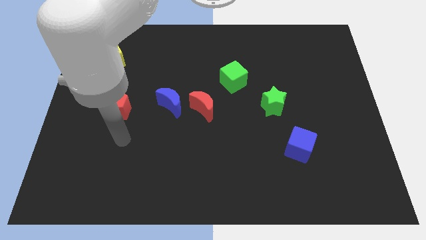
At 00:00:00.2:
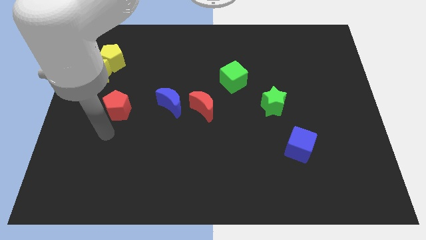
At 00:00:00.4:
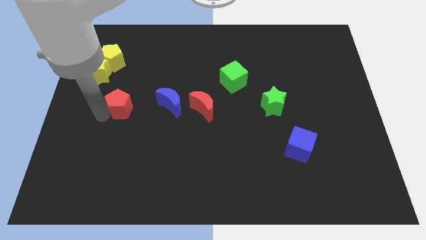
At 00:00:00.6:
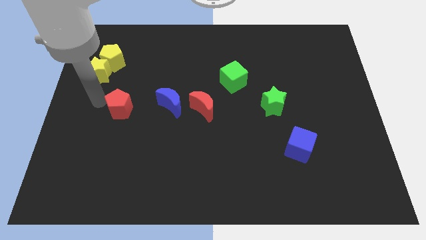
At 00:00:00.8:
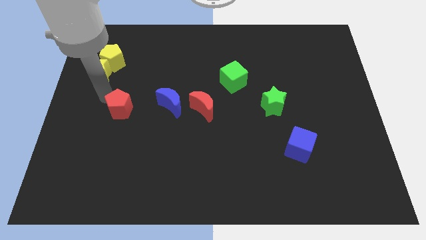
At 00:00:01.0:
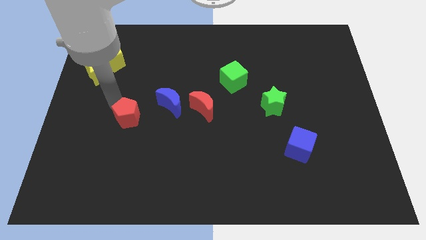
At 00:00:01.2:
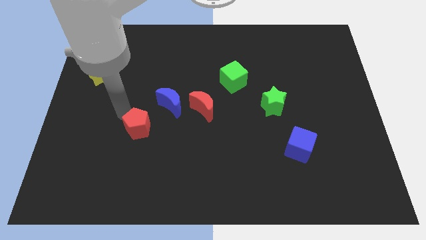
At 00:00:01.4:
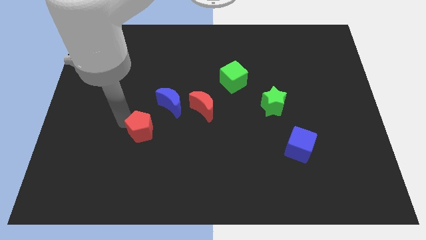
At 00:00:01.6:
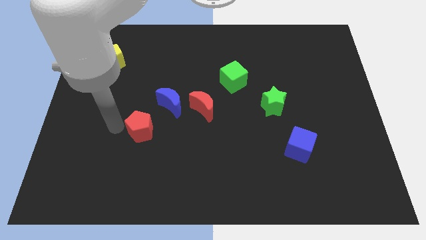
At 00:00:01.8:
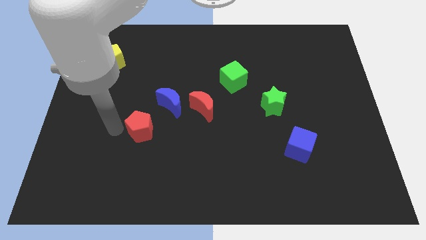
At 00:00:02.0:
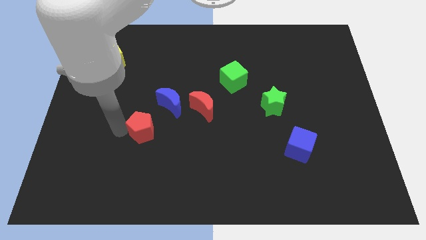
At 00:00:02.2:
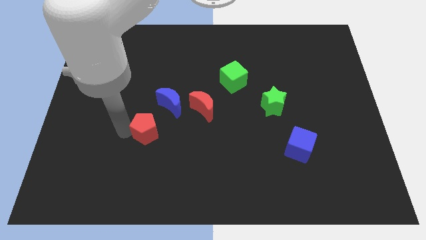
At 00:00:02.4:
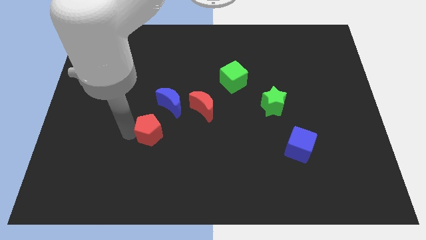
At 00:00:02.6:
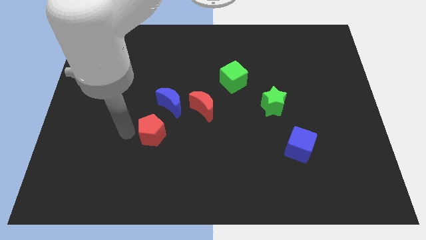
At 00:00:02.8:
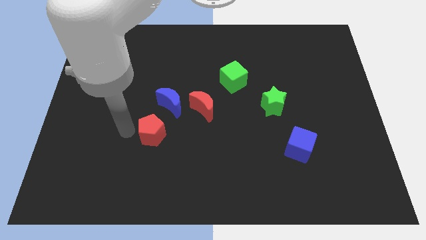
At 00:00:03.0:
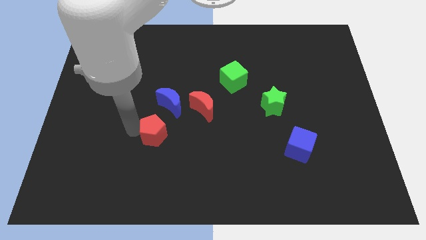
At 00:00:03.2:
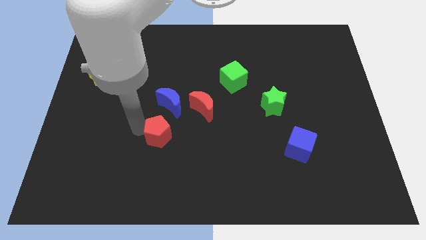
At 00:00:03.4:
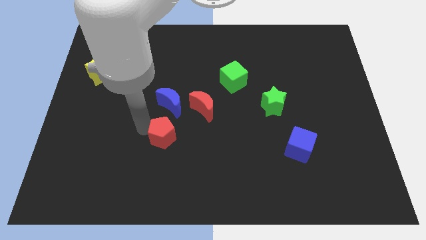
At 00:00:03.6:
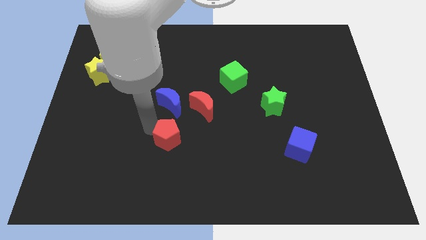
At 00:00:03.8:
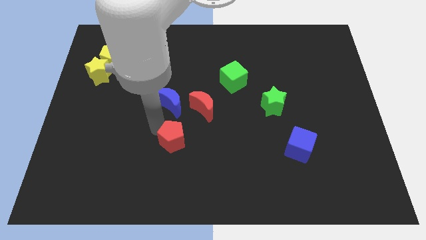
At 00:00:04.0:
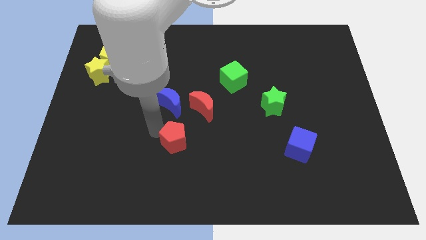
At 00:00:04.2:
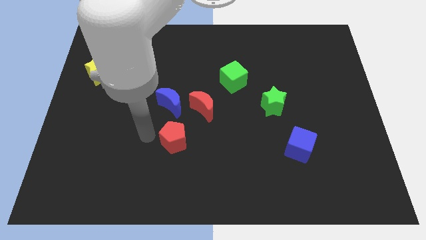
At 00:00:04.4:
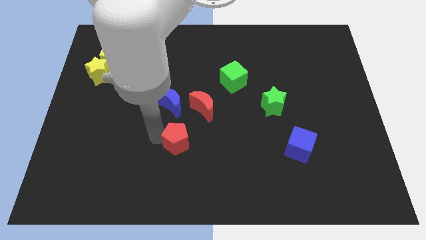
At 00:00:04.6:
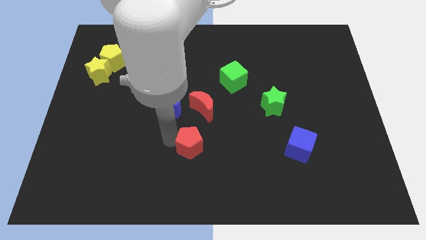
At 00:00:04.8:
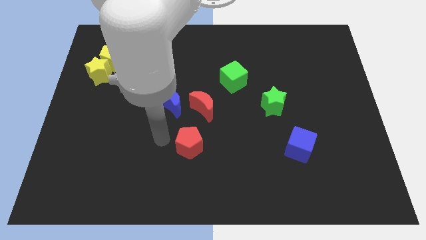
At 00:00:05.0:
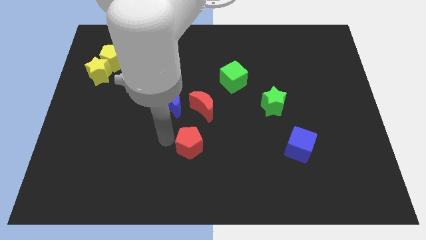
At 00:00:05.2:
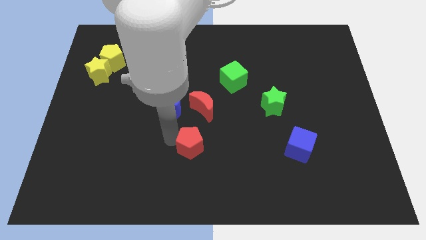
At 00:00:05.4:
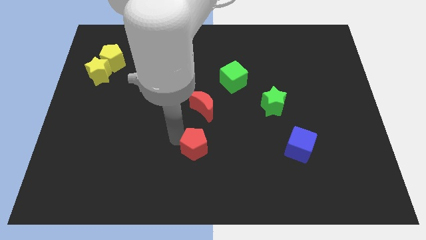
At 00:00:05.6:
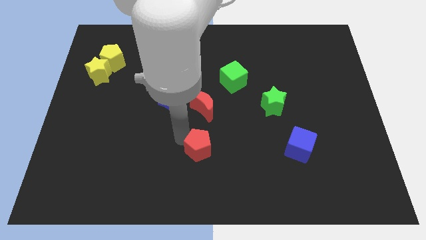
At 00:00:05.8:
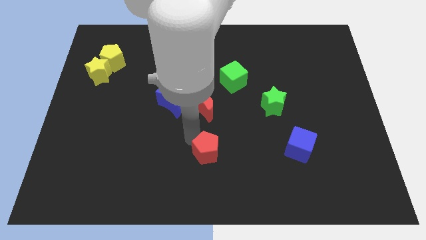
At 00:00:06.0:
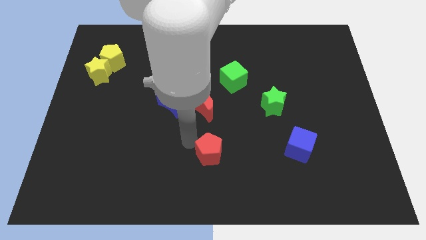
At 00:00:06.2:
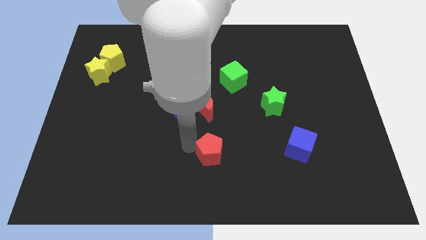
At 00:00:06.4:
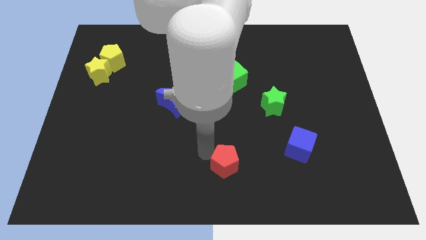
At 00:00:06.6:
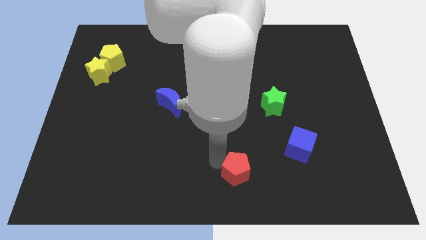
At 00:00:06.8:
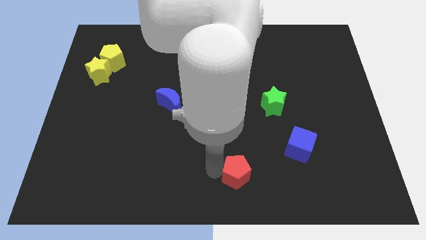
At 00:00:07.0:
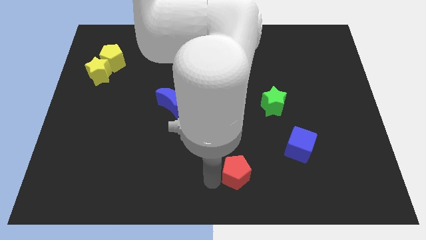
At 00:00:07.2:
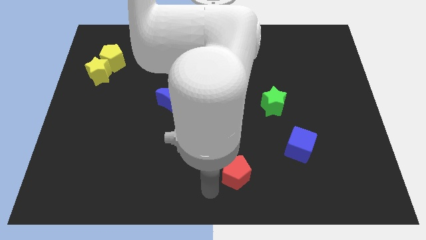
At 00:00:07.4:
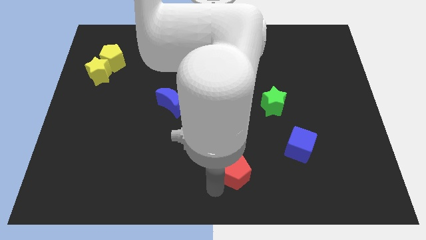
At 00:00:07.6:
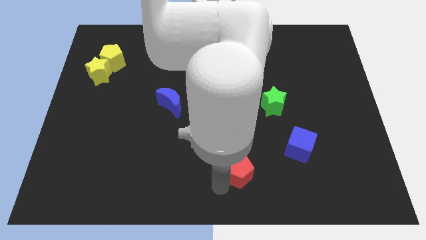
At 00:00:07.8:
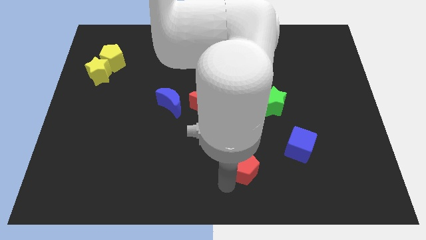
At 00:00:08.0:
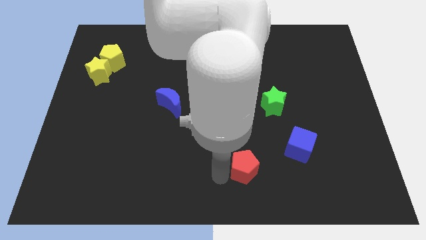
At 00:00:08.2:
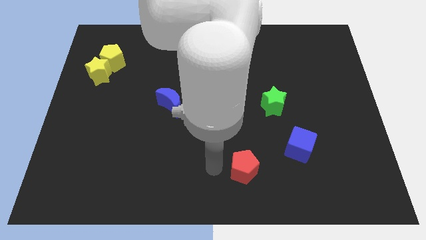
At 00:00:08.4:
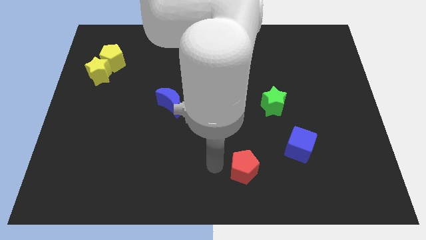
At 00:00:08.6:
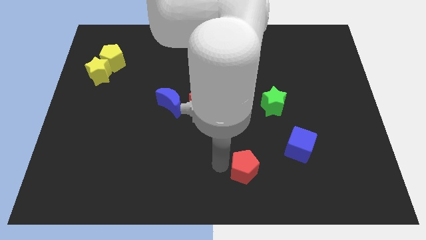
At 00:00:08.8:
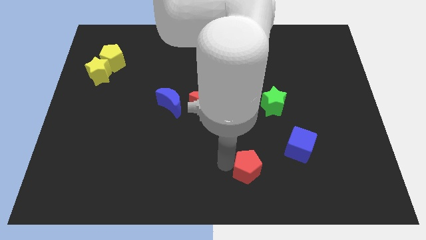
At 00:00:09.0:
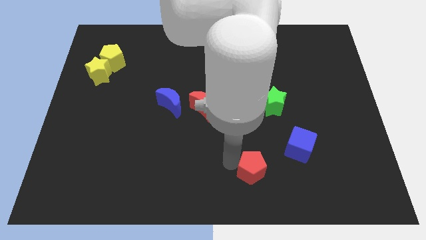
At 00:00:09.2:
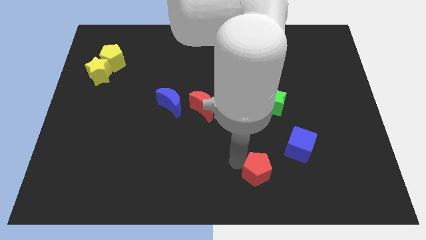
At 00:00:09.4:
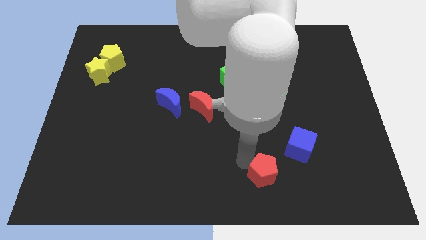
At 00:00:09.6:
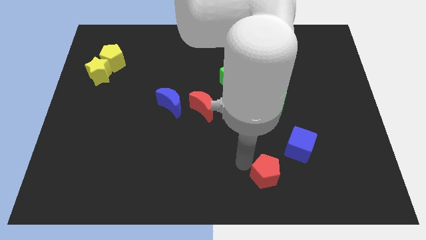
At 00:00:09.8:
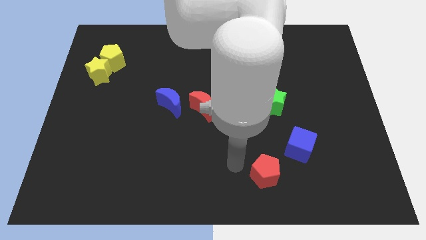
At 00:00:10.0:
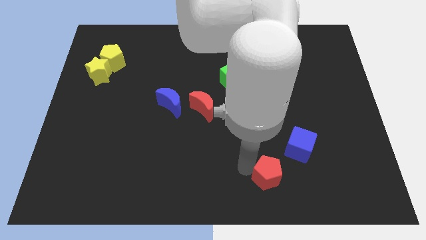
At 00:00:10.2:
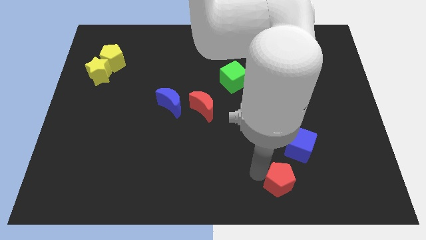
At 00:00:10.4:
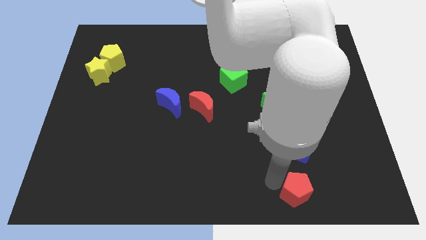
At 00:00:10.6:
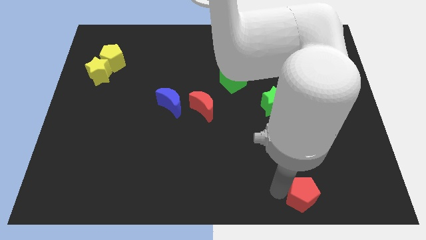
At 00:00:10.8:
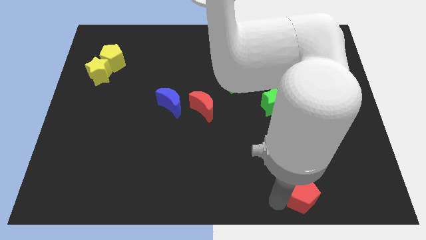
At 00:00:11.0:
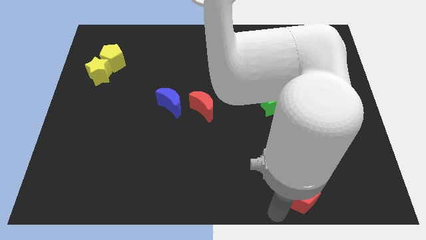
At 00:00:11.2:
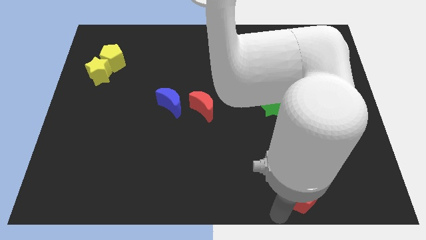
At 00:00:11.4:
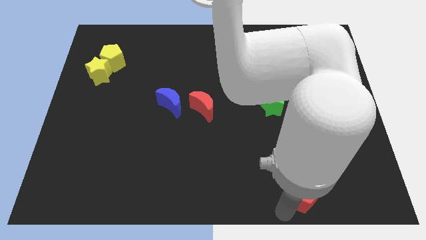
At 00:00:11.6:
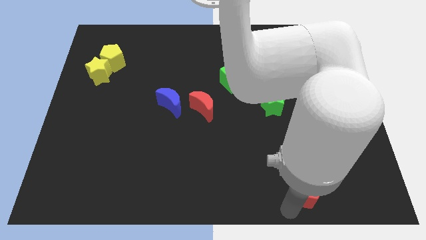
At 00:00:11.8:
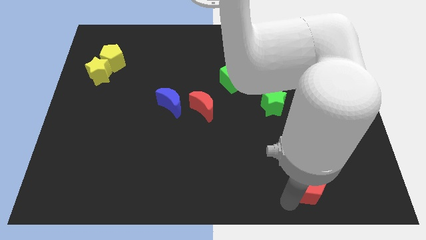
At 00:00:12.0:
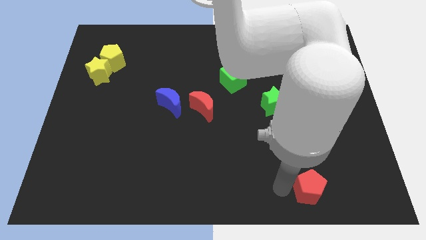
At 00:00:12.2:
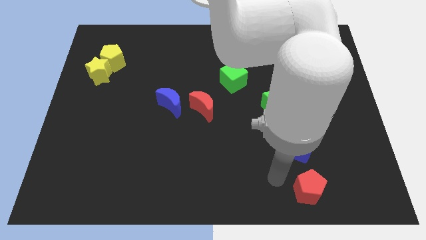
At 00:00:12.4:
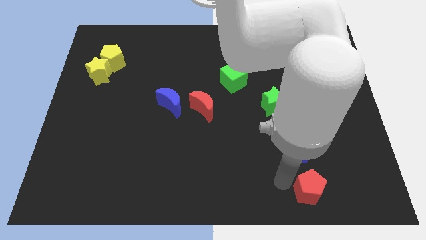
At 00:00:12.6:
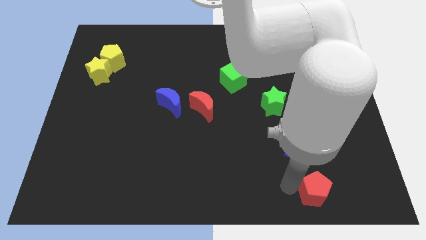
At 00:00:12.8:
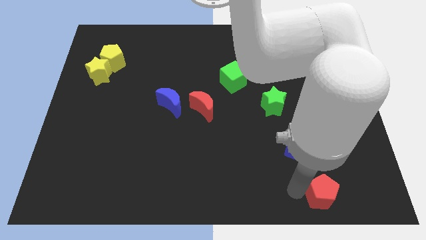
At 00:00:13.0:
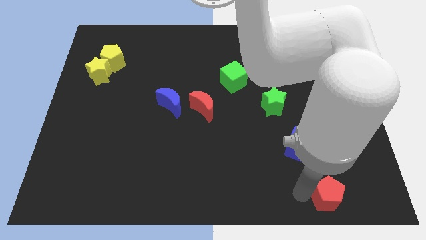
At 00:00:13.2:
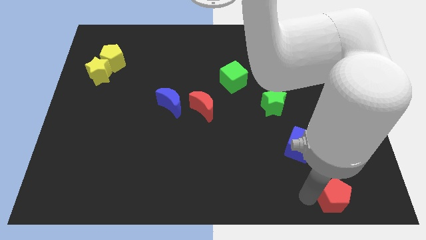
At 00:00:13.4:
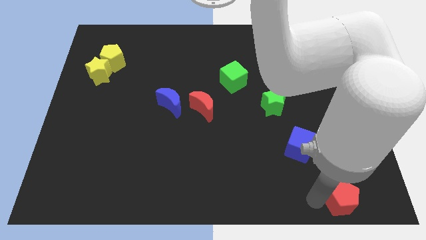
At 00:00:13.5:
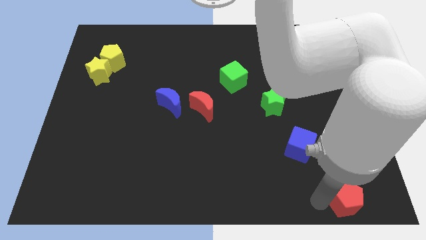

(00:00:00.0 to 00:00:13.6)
put the red pentagon to the lower right corner
